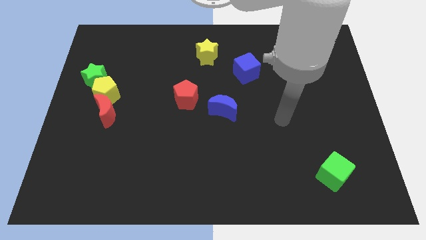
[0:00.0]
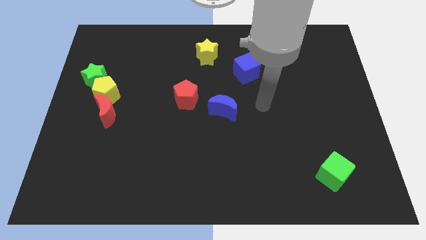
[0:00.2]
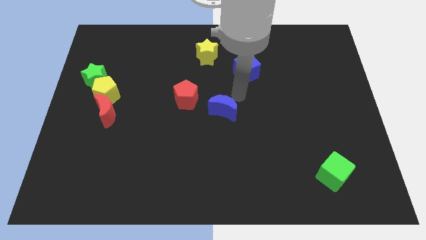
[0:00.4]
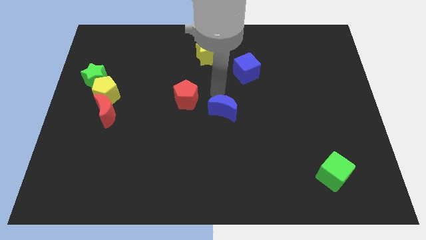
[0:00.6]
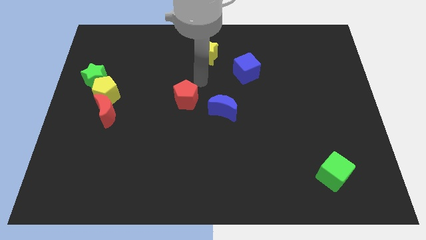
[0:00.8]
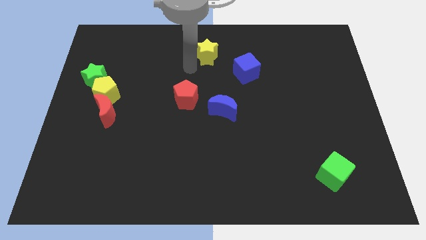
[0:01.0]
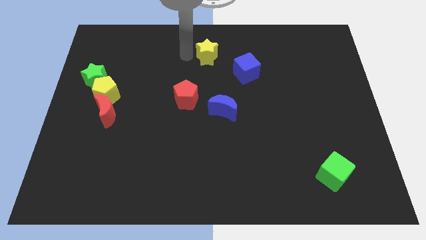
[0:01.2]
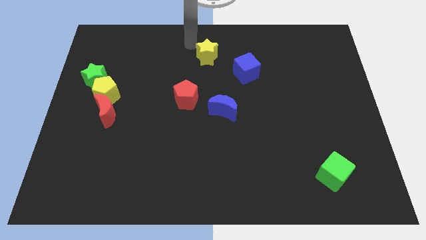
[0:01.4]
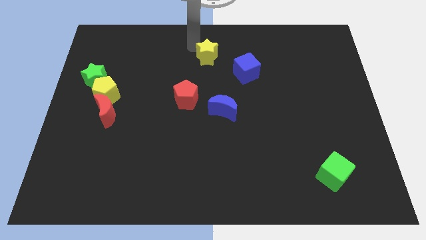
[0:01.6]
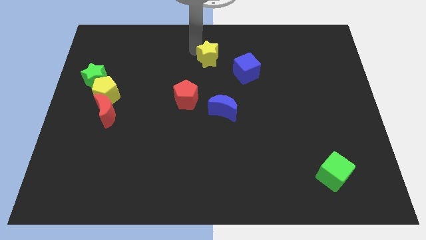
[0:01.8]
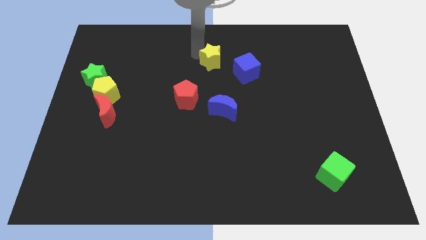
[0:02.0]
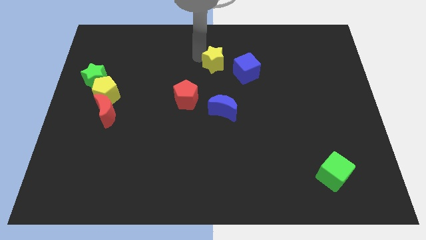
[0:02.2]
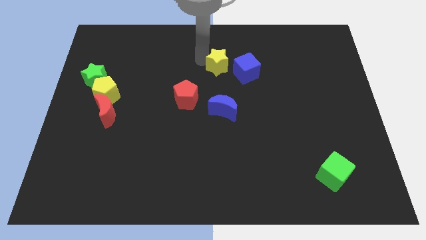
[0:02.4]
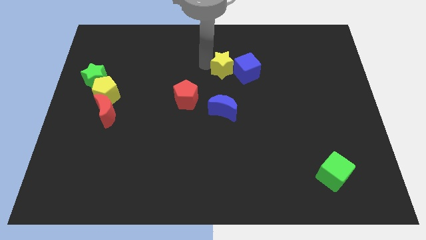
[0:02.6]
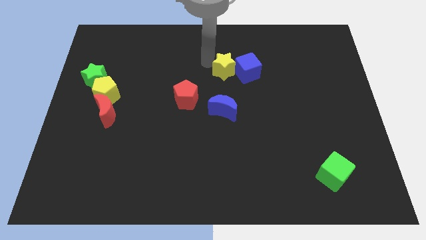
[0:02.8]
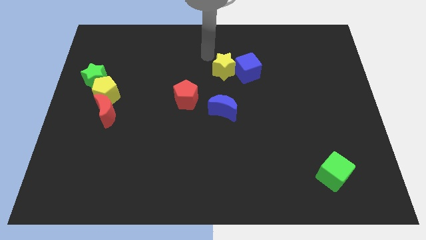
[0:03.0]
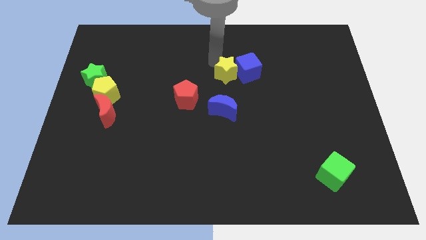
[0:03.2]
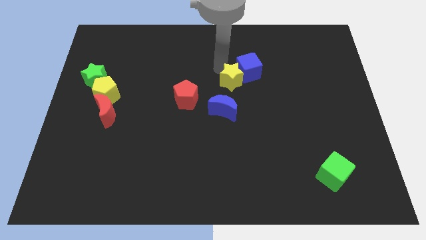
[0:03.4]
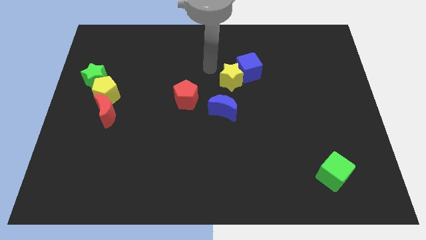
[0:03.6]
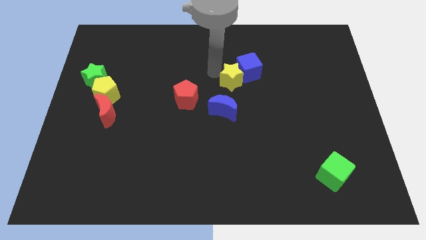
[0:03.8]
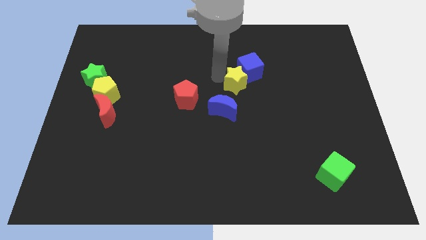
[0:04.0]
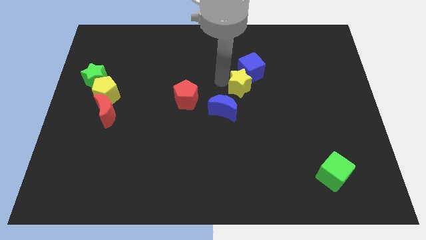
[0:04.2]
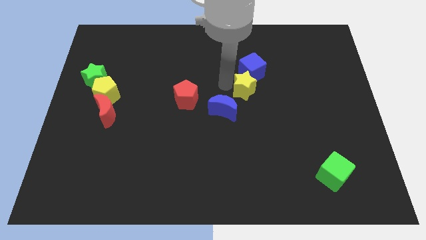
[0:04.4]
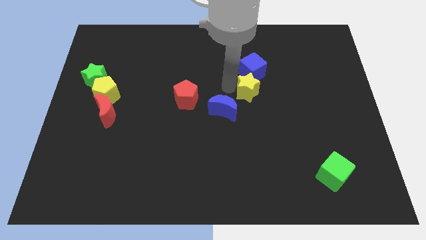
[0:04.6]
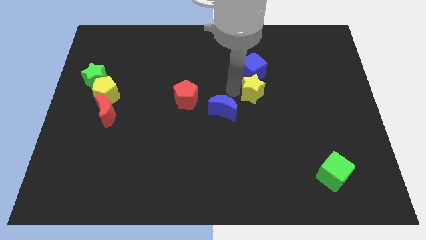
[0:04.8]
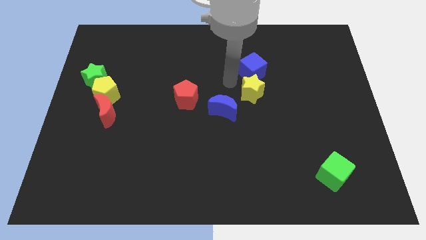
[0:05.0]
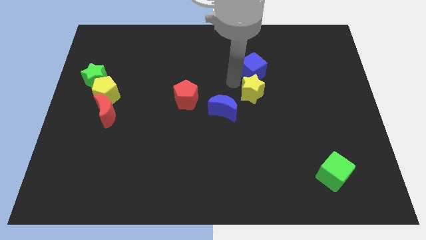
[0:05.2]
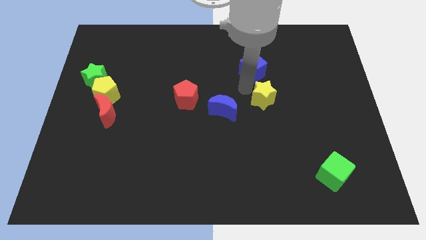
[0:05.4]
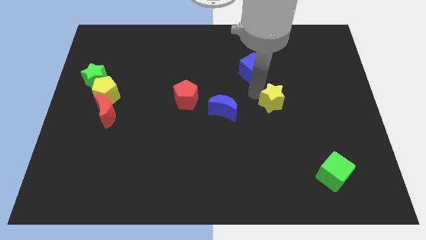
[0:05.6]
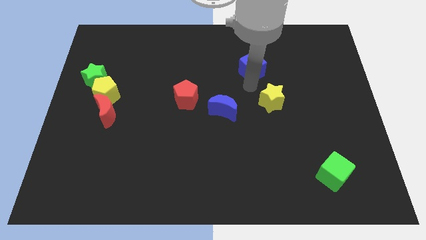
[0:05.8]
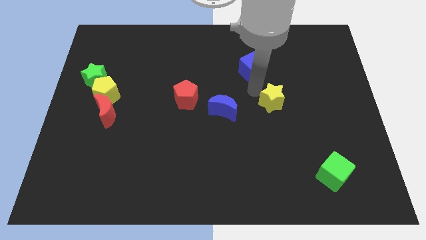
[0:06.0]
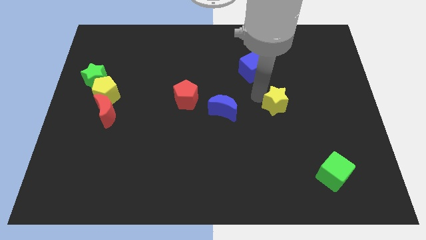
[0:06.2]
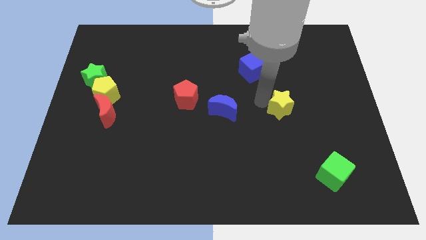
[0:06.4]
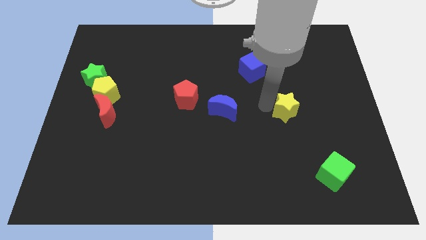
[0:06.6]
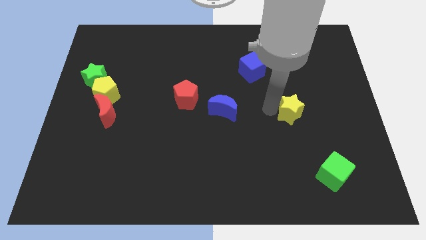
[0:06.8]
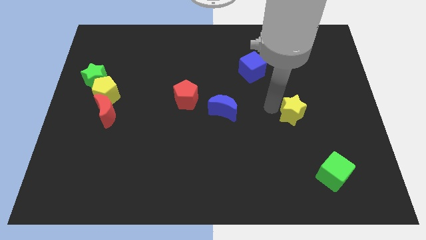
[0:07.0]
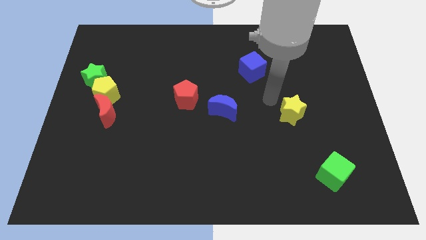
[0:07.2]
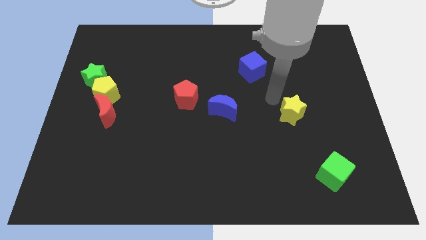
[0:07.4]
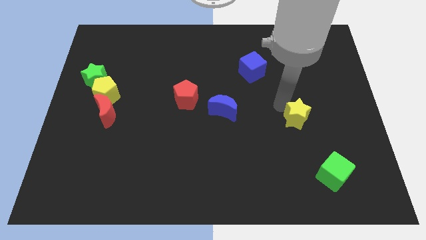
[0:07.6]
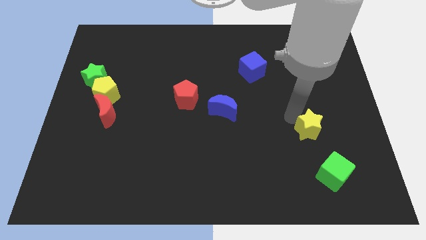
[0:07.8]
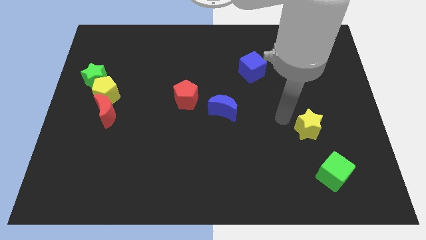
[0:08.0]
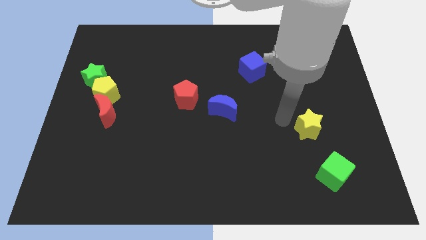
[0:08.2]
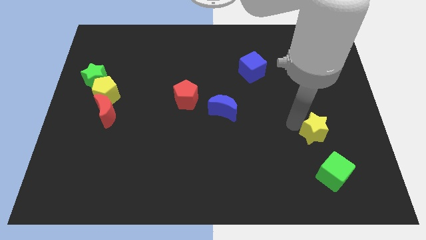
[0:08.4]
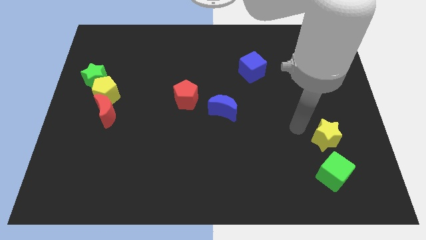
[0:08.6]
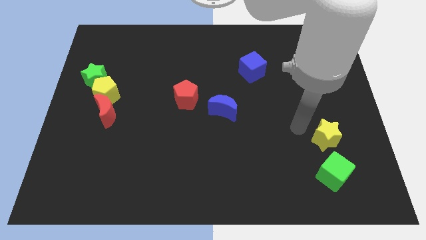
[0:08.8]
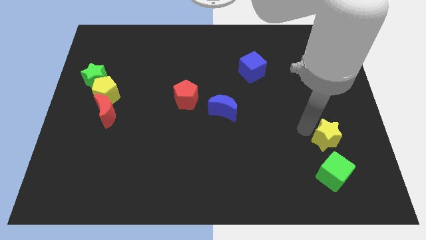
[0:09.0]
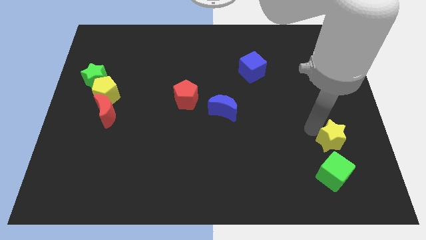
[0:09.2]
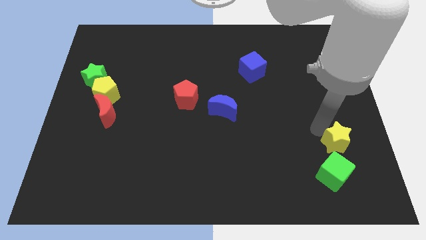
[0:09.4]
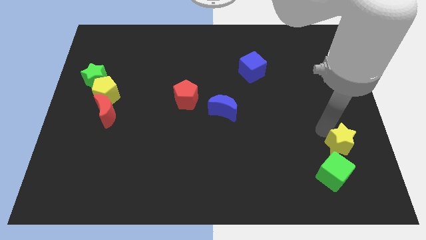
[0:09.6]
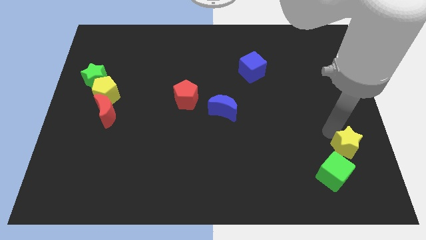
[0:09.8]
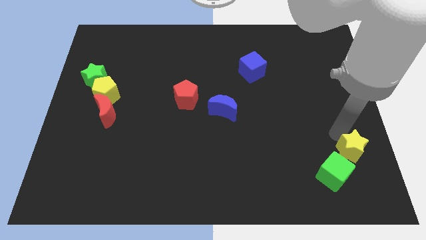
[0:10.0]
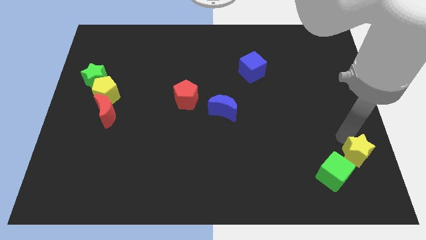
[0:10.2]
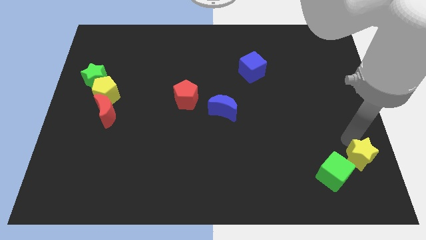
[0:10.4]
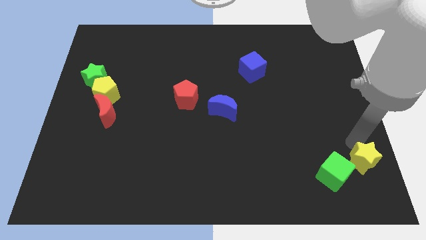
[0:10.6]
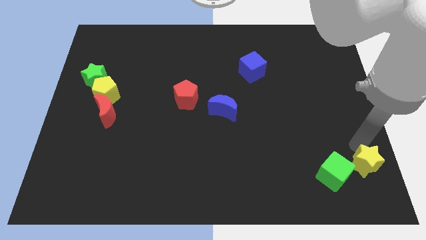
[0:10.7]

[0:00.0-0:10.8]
move the yellow star to the bottom right of the board

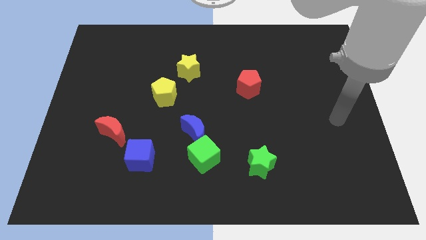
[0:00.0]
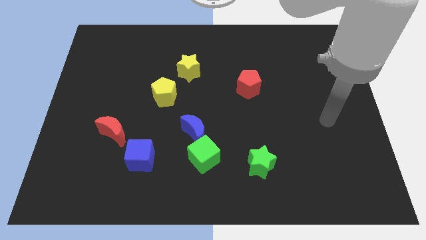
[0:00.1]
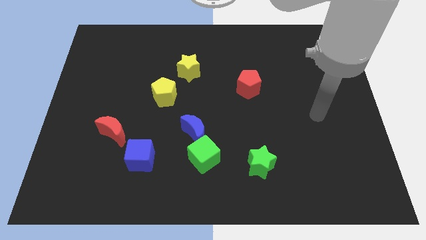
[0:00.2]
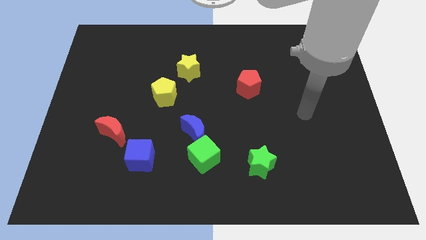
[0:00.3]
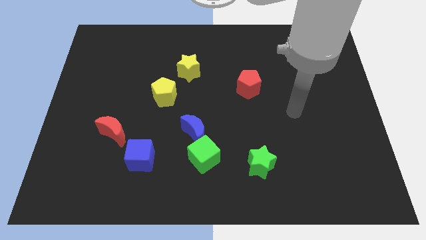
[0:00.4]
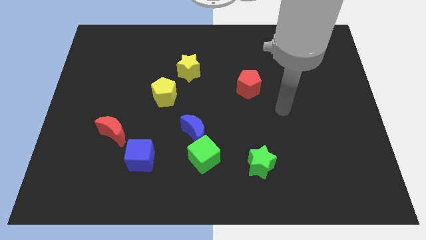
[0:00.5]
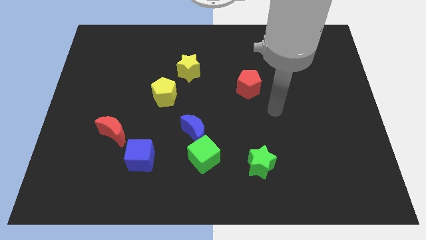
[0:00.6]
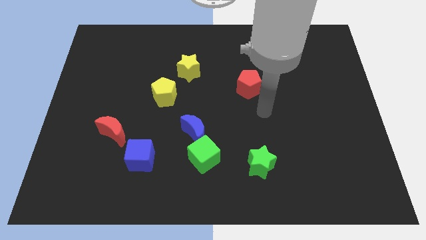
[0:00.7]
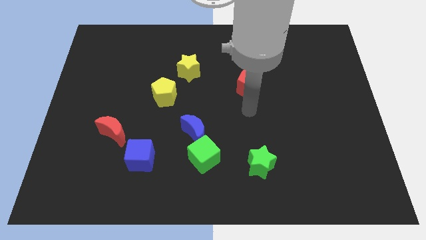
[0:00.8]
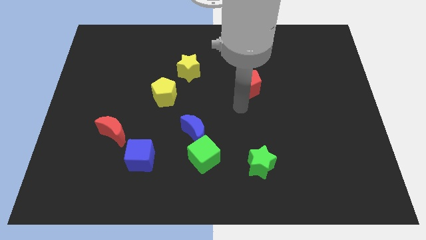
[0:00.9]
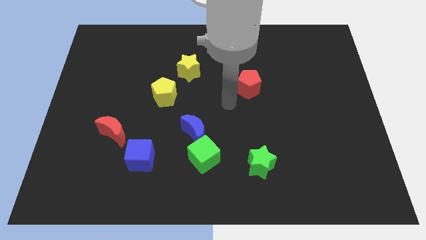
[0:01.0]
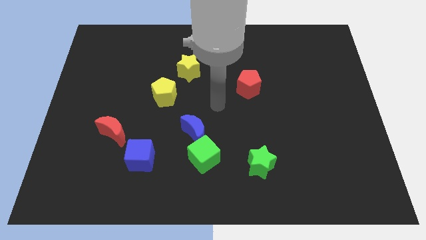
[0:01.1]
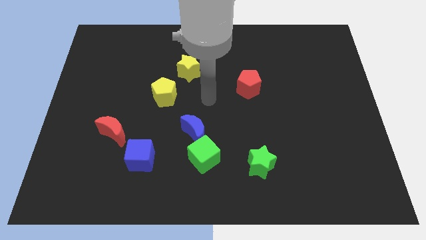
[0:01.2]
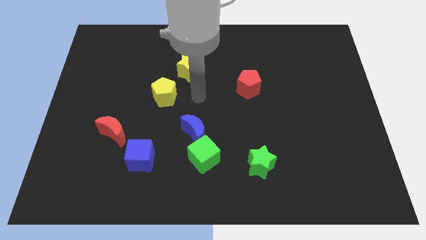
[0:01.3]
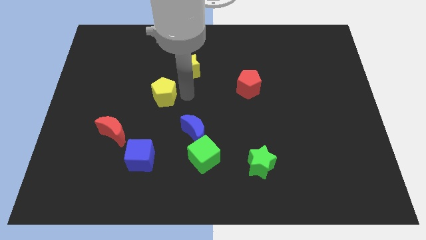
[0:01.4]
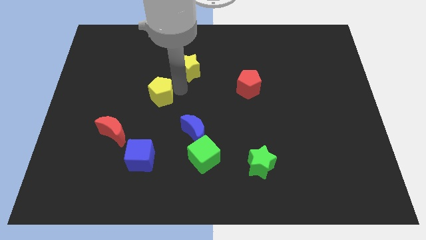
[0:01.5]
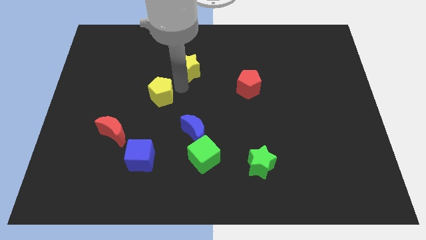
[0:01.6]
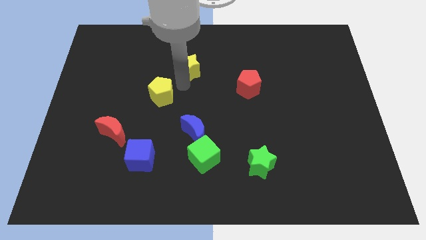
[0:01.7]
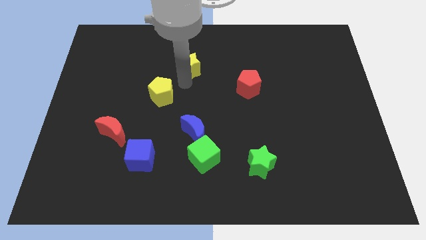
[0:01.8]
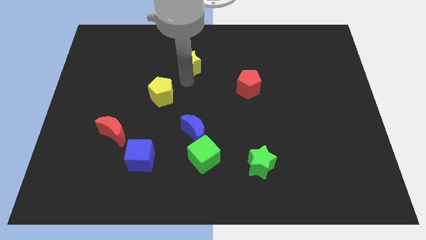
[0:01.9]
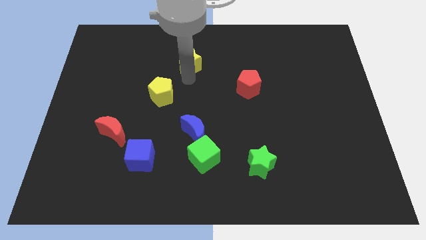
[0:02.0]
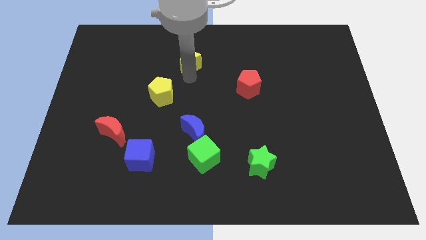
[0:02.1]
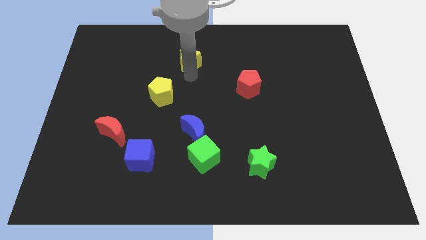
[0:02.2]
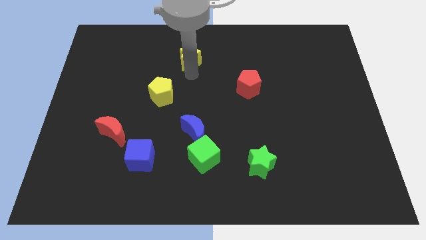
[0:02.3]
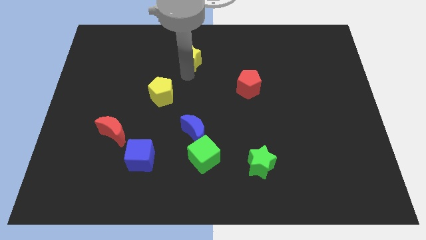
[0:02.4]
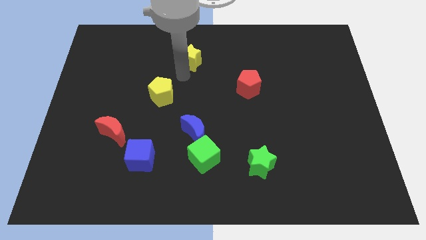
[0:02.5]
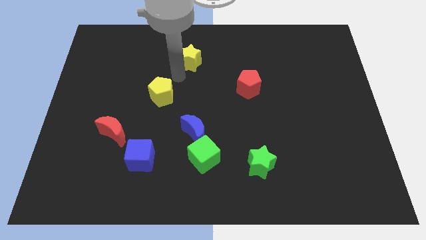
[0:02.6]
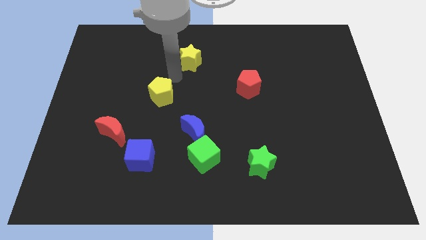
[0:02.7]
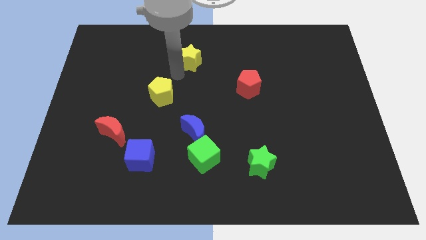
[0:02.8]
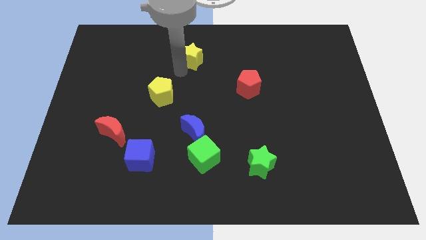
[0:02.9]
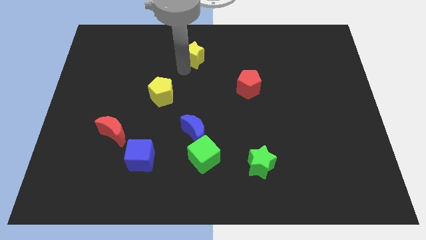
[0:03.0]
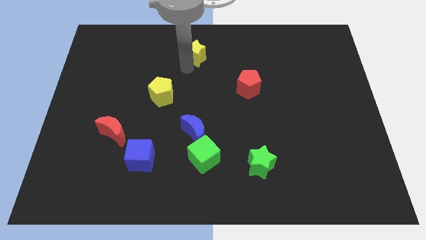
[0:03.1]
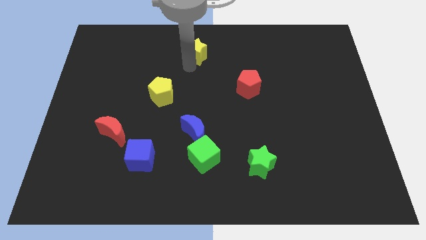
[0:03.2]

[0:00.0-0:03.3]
move the yellow star to the top
